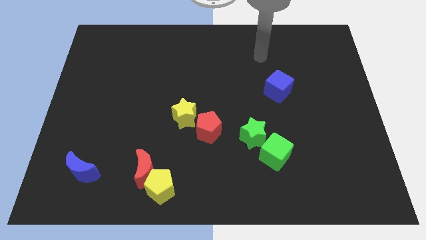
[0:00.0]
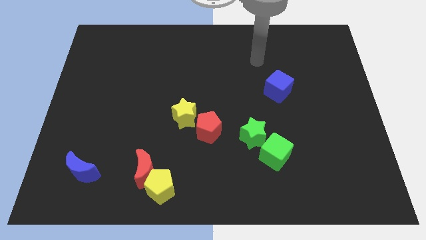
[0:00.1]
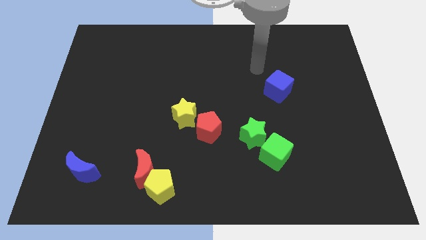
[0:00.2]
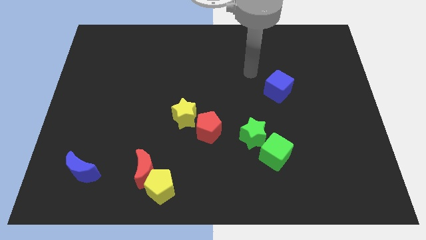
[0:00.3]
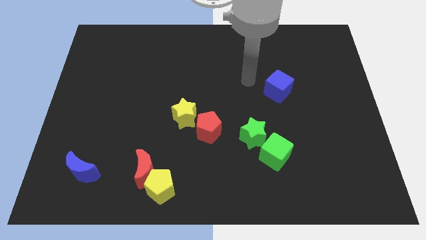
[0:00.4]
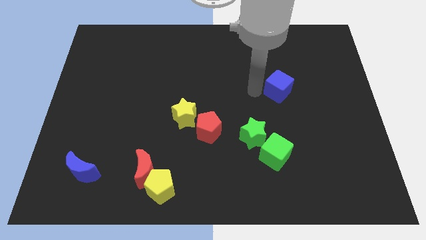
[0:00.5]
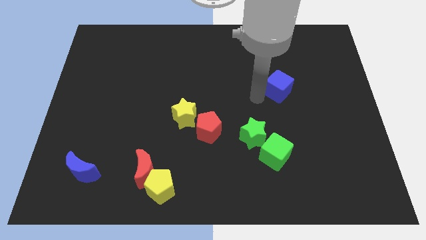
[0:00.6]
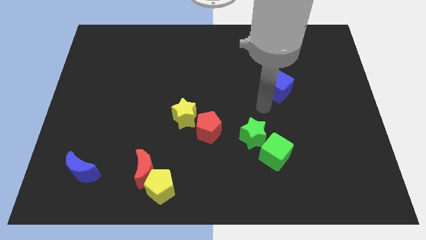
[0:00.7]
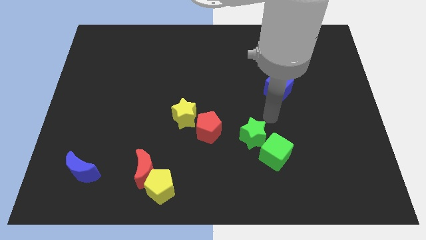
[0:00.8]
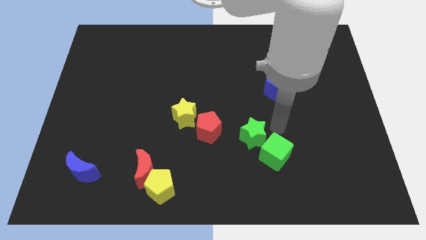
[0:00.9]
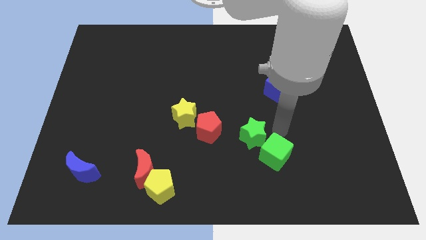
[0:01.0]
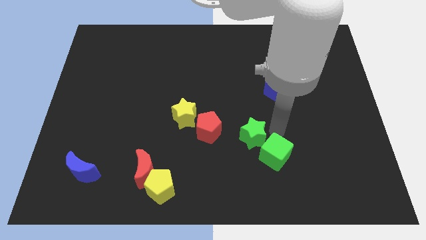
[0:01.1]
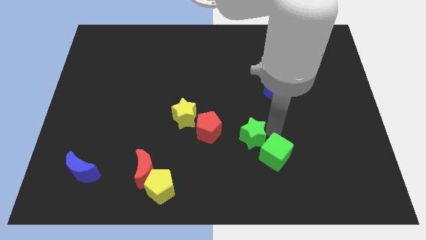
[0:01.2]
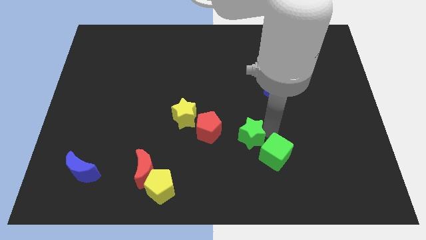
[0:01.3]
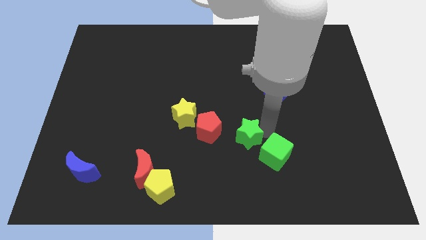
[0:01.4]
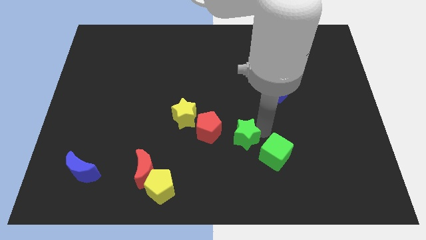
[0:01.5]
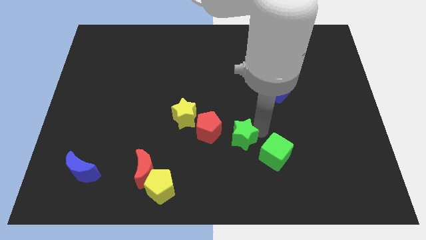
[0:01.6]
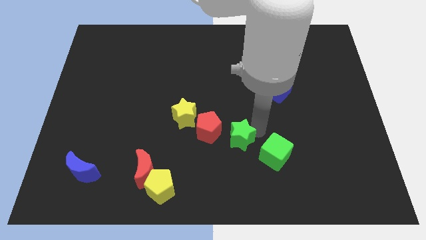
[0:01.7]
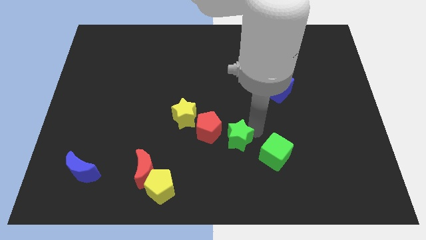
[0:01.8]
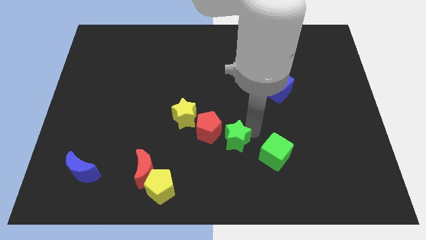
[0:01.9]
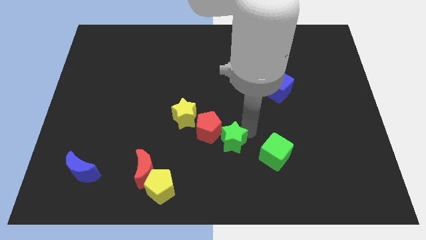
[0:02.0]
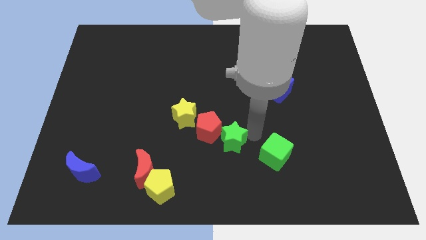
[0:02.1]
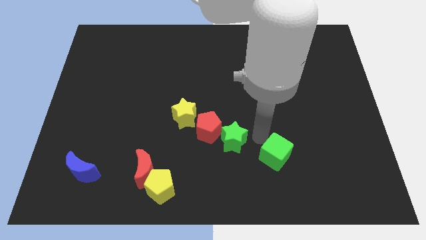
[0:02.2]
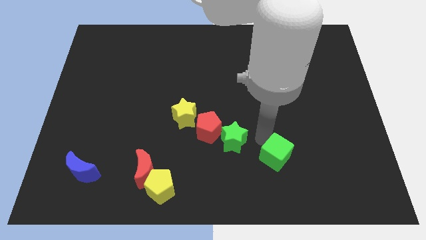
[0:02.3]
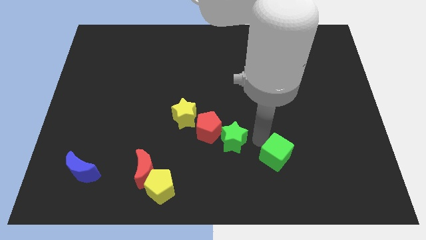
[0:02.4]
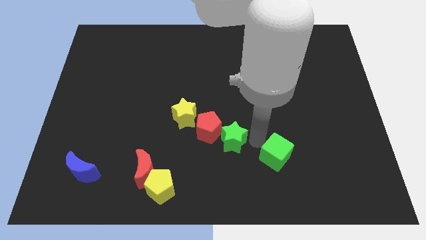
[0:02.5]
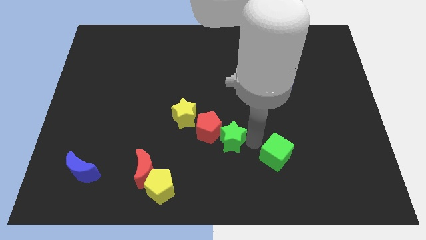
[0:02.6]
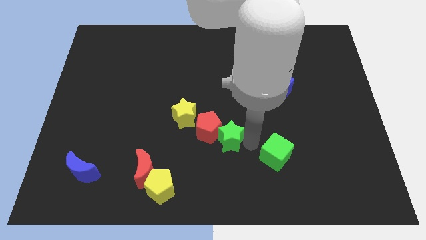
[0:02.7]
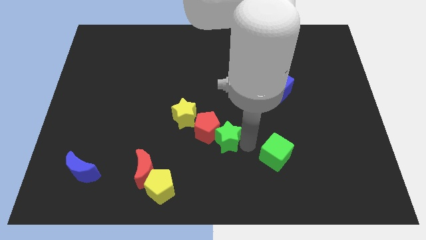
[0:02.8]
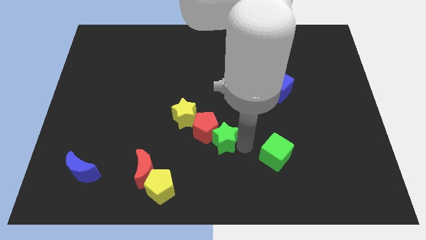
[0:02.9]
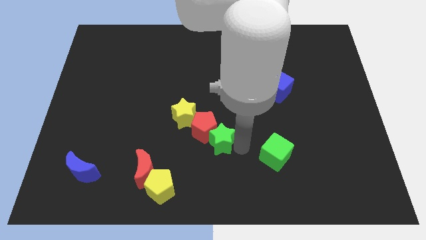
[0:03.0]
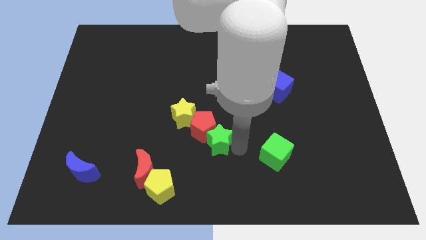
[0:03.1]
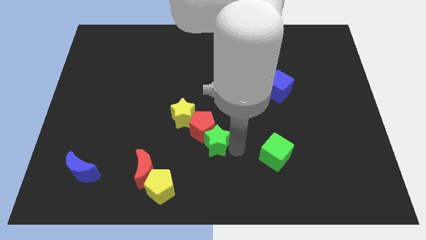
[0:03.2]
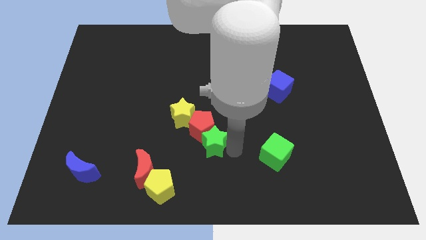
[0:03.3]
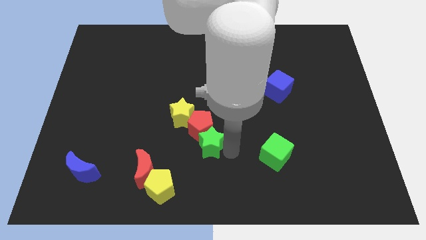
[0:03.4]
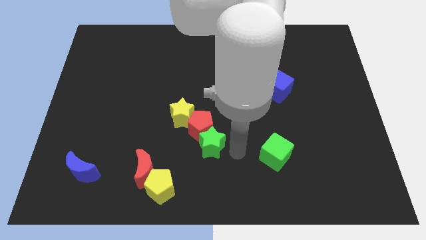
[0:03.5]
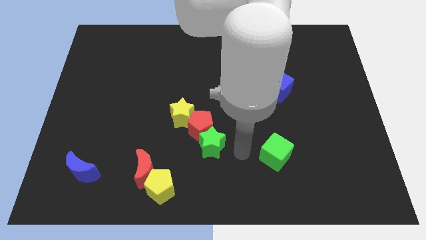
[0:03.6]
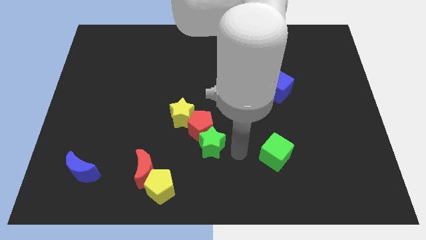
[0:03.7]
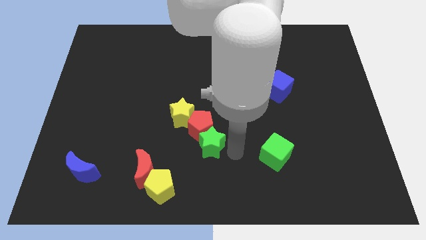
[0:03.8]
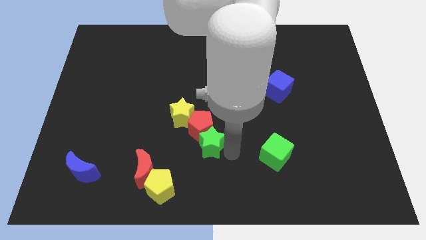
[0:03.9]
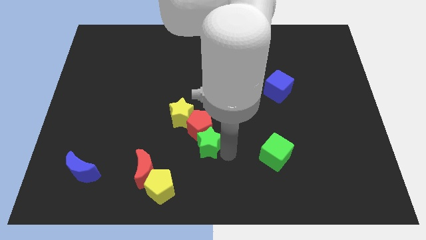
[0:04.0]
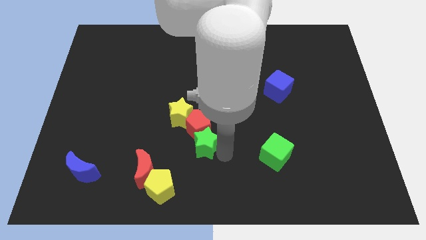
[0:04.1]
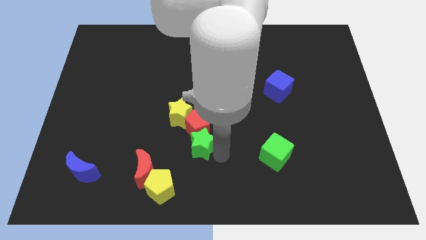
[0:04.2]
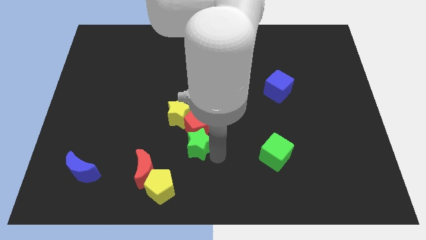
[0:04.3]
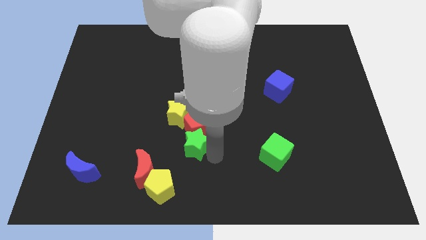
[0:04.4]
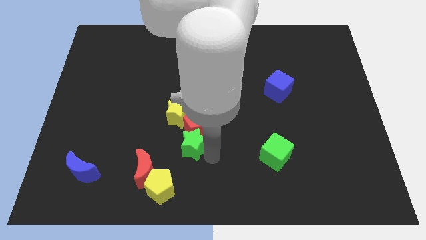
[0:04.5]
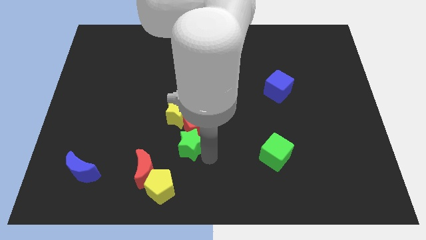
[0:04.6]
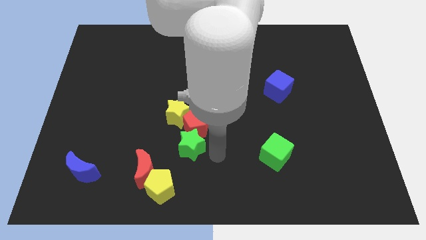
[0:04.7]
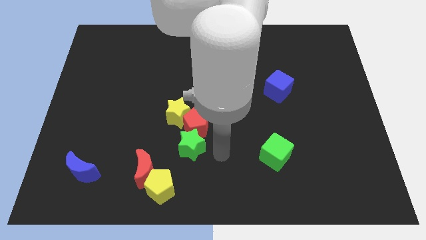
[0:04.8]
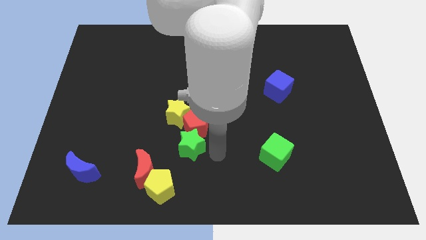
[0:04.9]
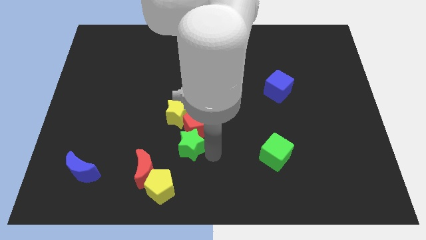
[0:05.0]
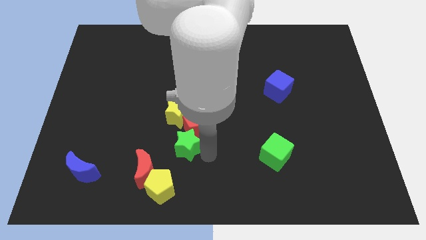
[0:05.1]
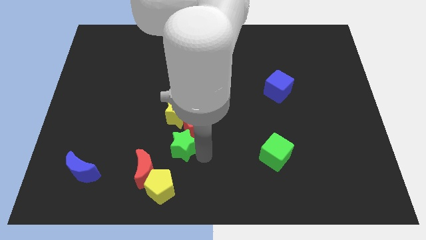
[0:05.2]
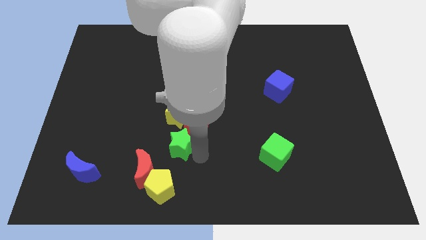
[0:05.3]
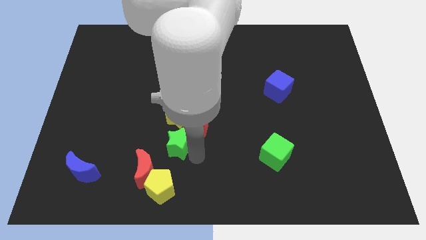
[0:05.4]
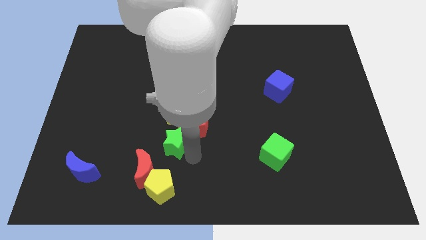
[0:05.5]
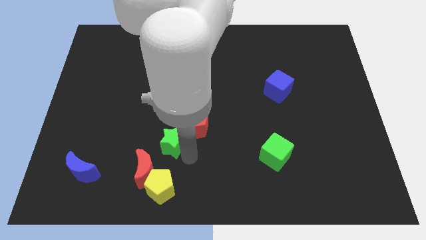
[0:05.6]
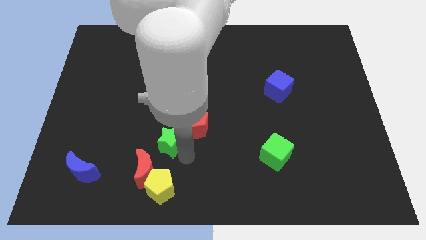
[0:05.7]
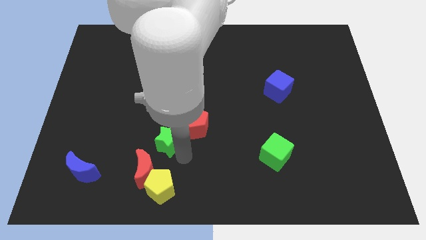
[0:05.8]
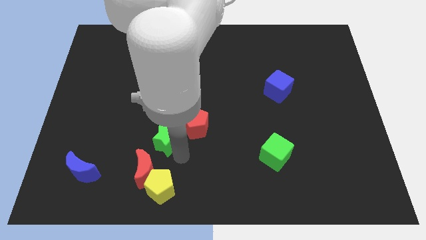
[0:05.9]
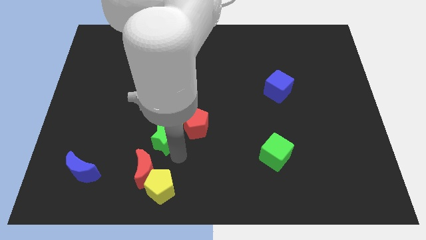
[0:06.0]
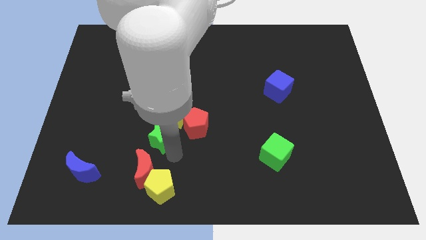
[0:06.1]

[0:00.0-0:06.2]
move the green star left

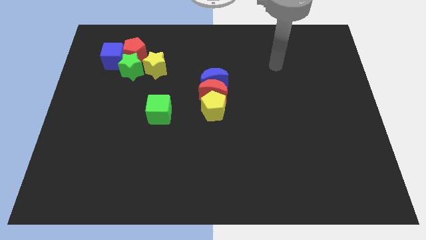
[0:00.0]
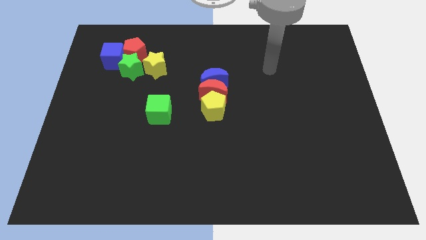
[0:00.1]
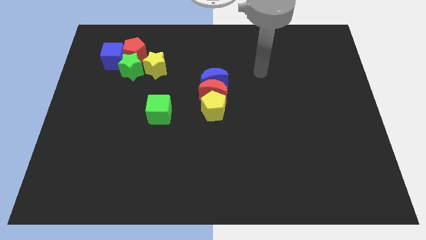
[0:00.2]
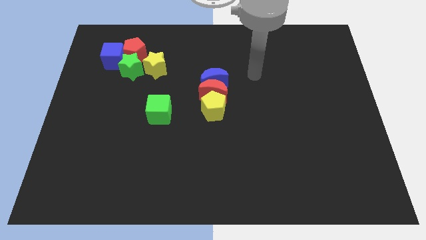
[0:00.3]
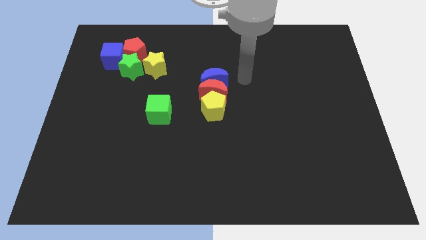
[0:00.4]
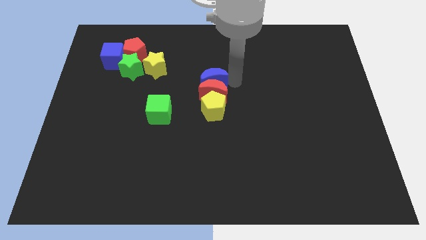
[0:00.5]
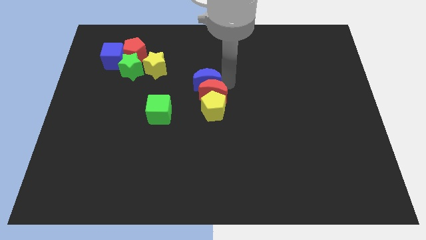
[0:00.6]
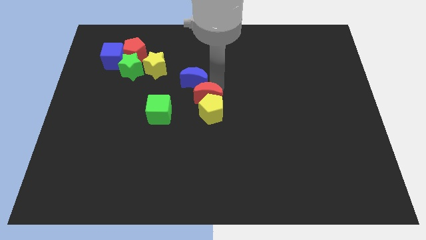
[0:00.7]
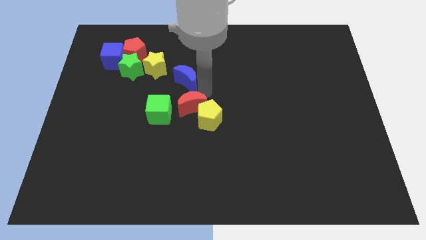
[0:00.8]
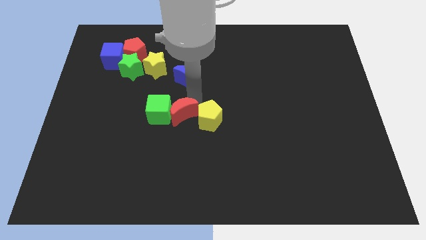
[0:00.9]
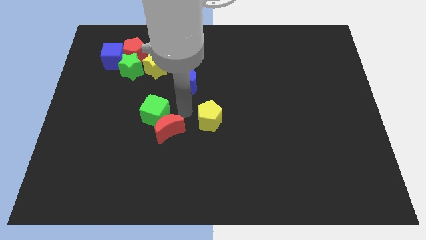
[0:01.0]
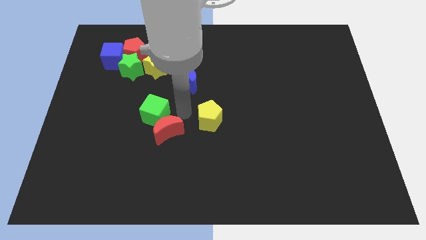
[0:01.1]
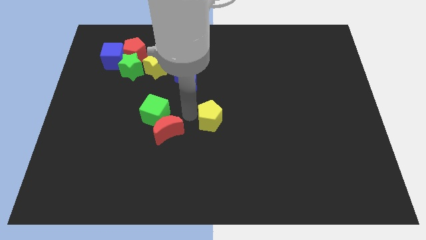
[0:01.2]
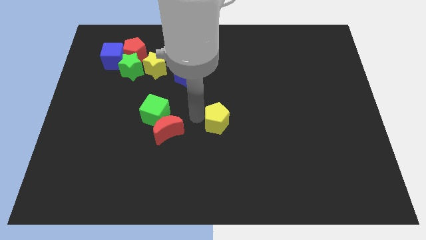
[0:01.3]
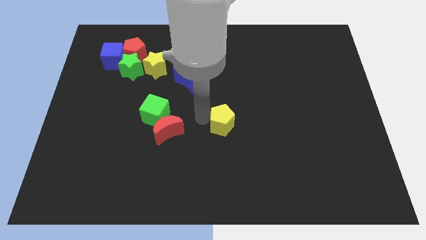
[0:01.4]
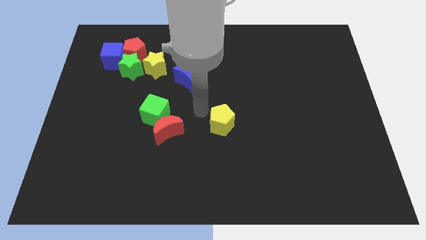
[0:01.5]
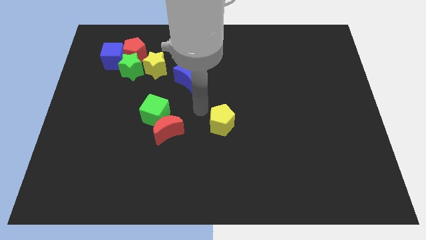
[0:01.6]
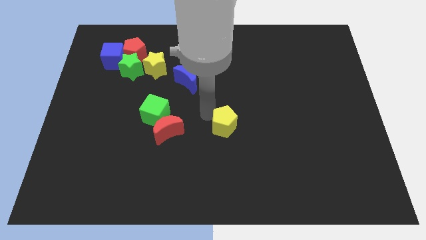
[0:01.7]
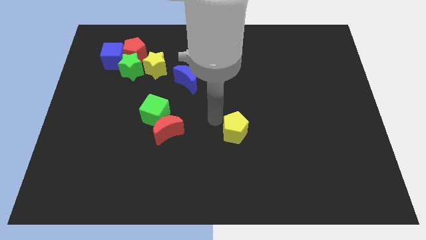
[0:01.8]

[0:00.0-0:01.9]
push the yellow pentagon a little bit down and then to the right
